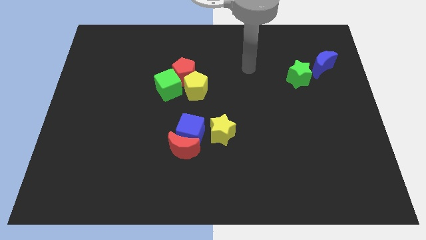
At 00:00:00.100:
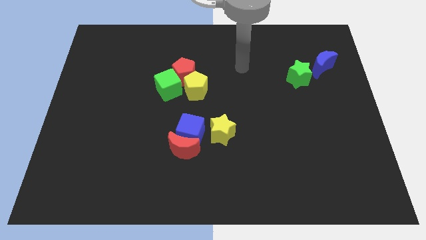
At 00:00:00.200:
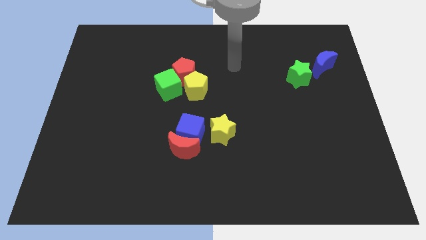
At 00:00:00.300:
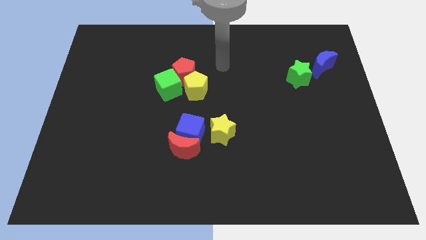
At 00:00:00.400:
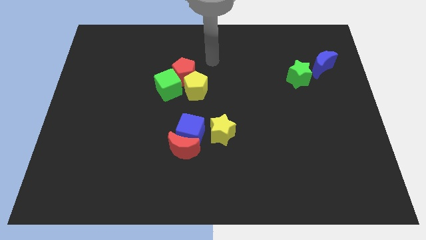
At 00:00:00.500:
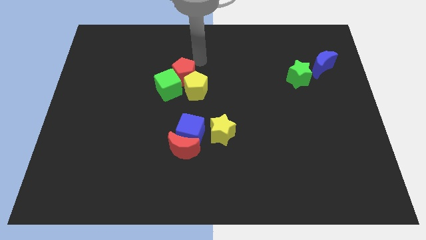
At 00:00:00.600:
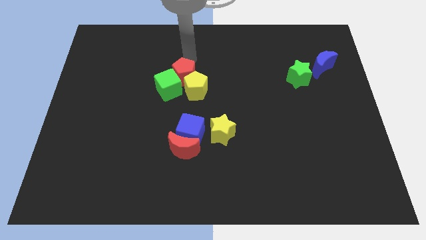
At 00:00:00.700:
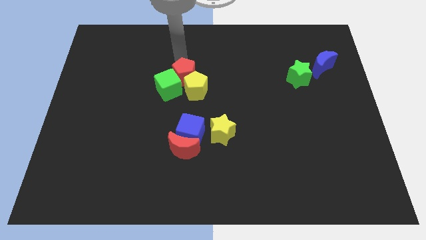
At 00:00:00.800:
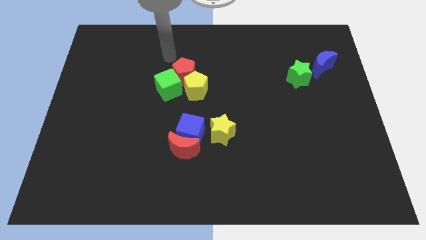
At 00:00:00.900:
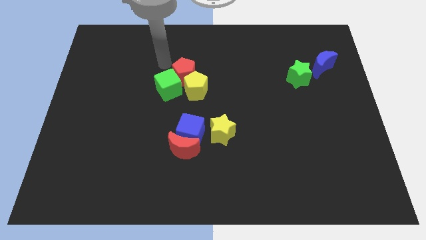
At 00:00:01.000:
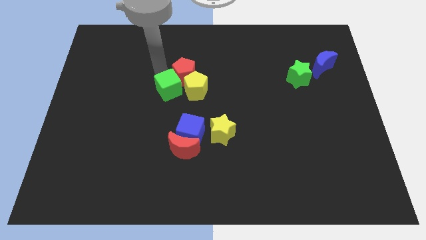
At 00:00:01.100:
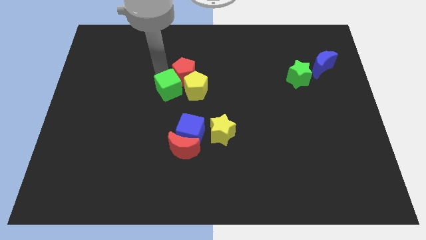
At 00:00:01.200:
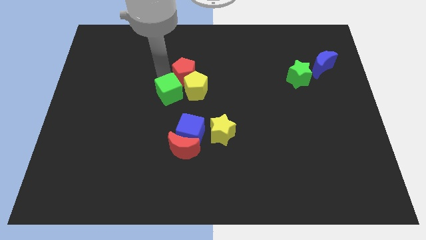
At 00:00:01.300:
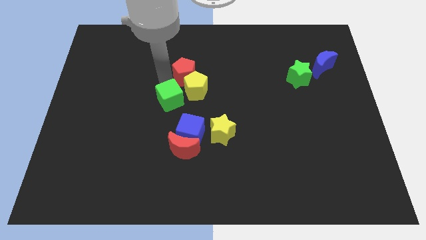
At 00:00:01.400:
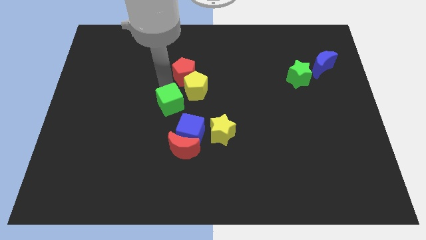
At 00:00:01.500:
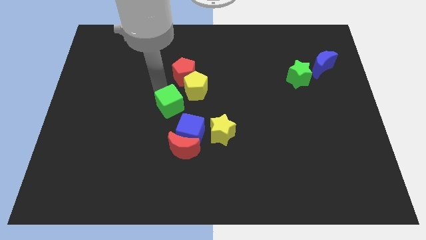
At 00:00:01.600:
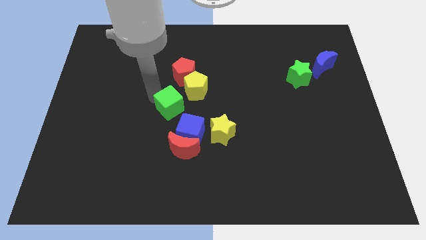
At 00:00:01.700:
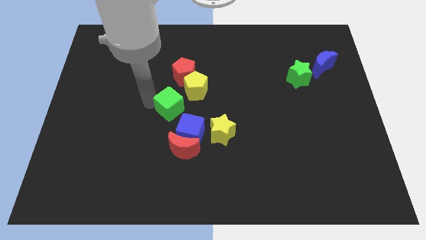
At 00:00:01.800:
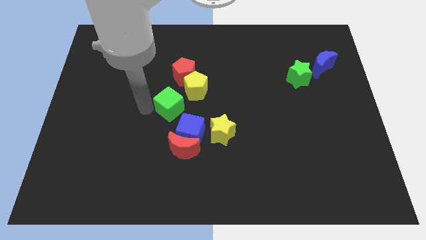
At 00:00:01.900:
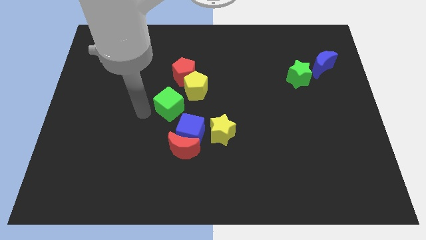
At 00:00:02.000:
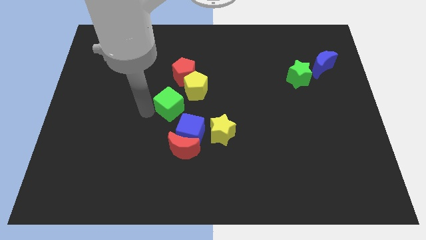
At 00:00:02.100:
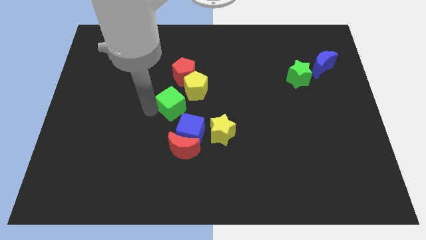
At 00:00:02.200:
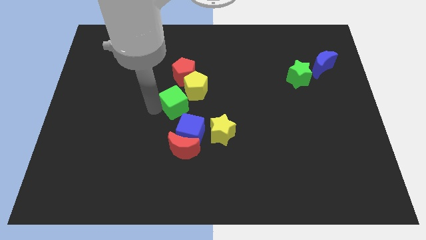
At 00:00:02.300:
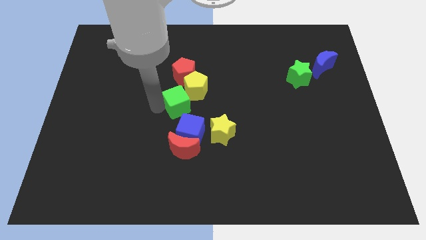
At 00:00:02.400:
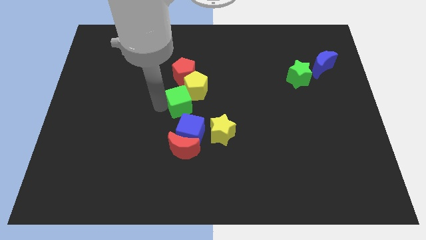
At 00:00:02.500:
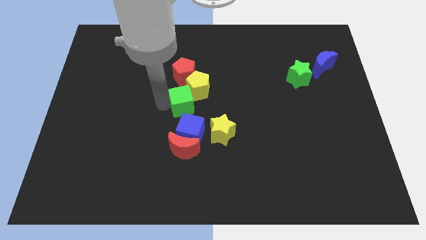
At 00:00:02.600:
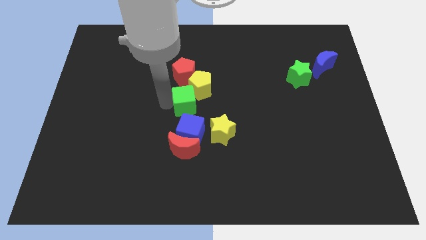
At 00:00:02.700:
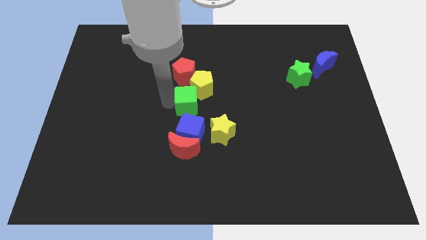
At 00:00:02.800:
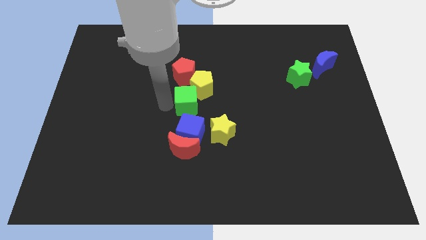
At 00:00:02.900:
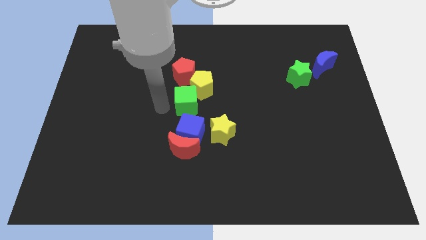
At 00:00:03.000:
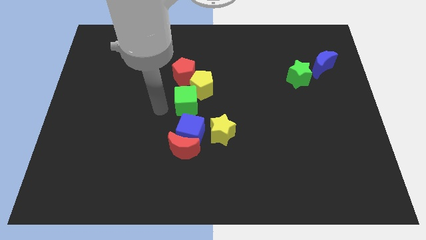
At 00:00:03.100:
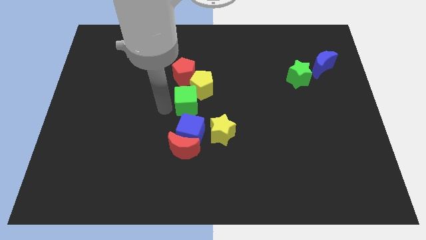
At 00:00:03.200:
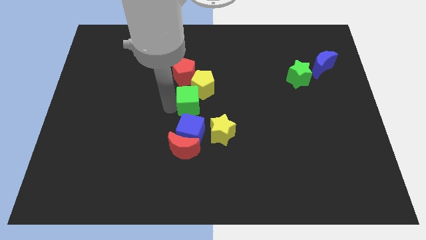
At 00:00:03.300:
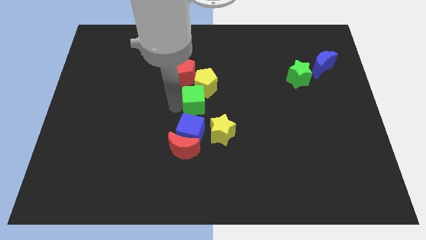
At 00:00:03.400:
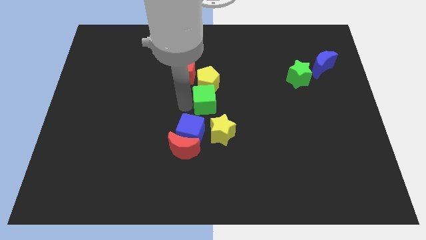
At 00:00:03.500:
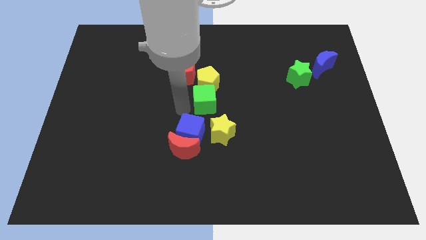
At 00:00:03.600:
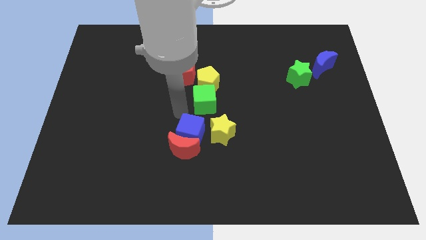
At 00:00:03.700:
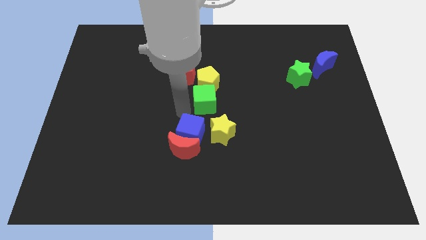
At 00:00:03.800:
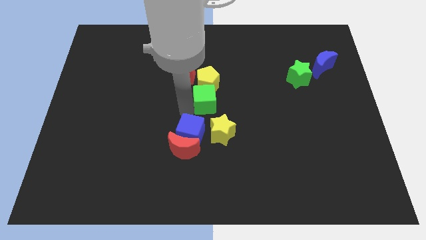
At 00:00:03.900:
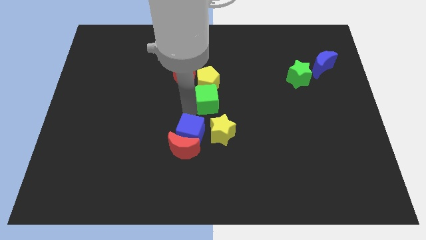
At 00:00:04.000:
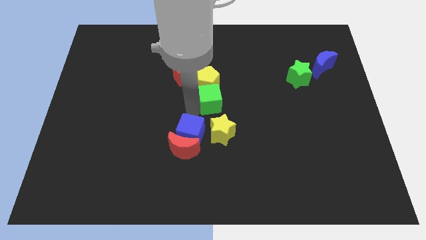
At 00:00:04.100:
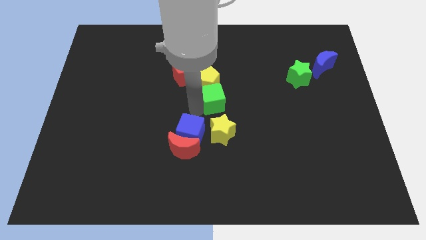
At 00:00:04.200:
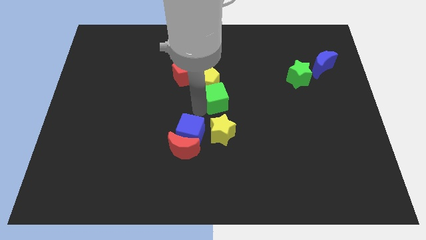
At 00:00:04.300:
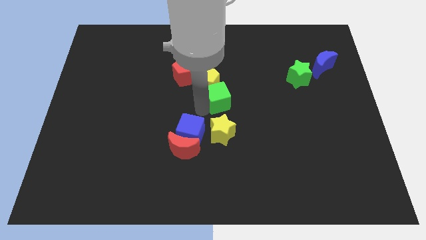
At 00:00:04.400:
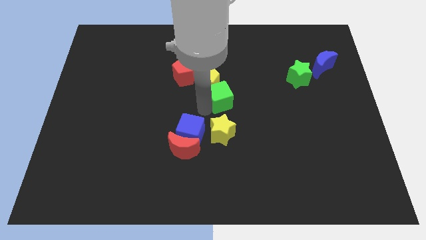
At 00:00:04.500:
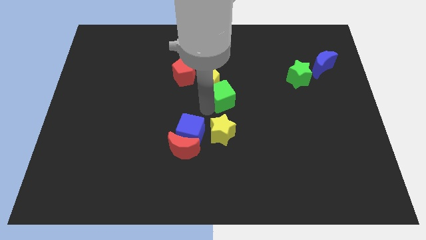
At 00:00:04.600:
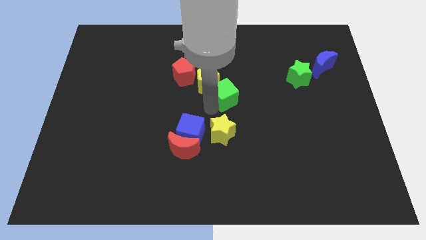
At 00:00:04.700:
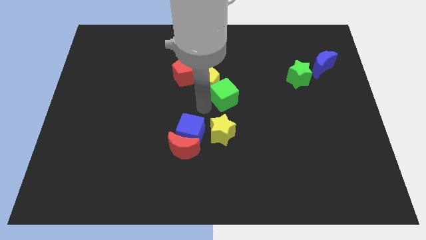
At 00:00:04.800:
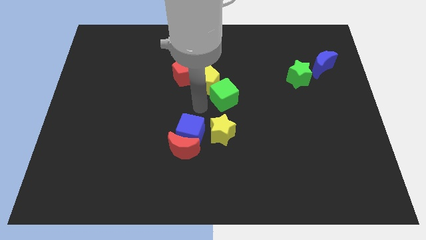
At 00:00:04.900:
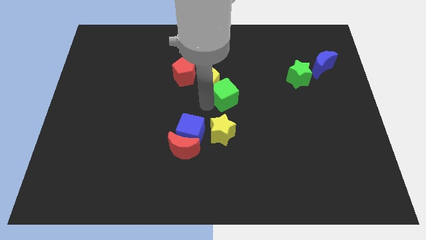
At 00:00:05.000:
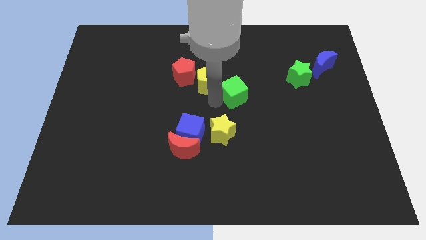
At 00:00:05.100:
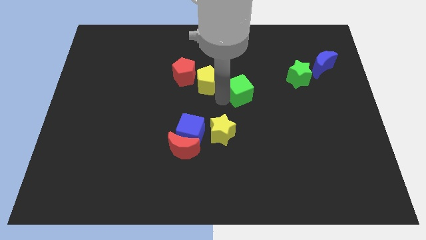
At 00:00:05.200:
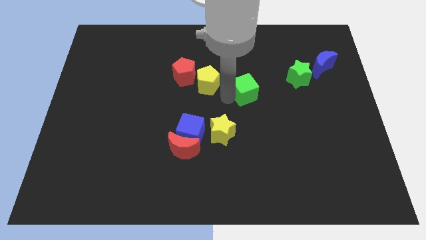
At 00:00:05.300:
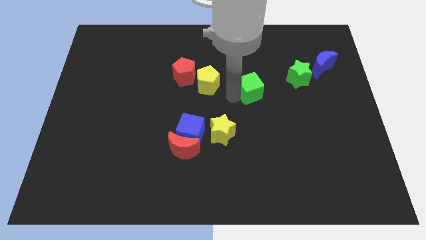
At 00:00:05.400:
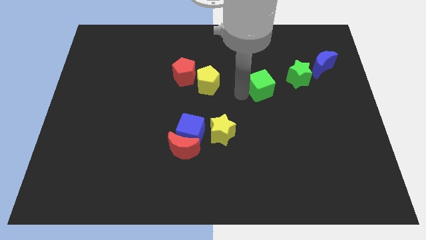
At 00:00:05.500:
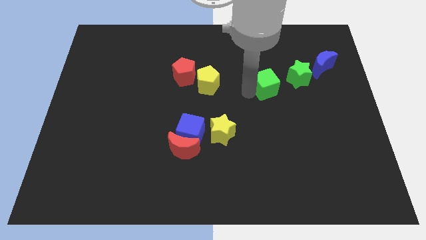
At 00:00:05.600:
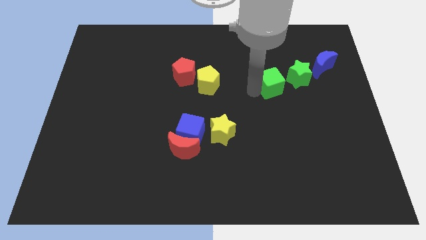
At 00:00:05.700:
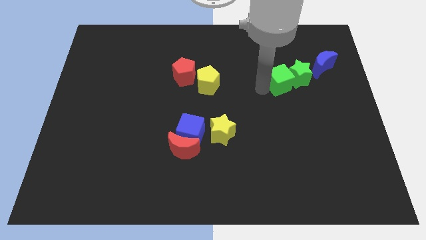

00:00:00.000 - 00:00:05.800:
push the green cube to the green star
